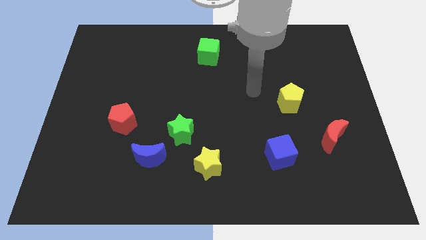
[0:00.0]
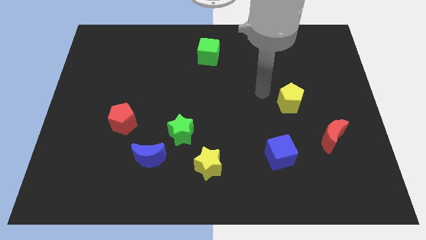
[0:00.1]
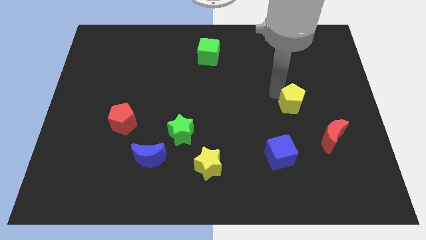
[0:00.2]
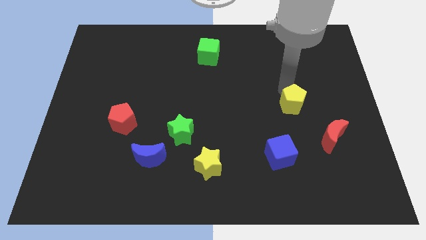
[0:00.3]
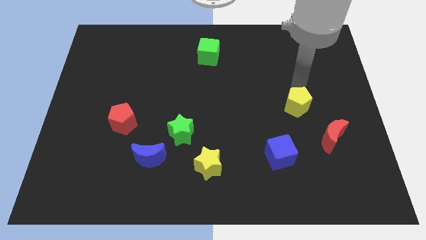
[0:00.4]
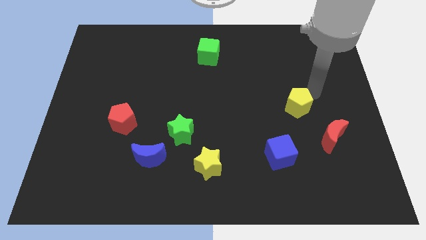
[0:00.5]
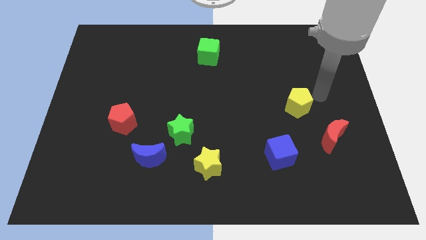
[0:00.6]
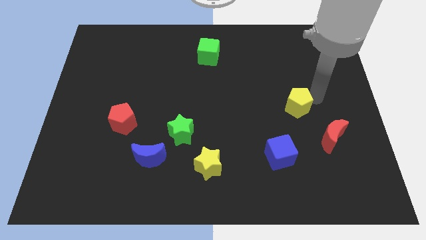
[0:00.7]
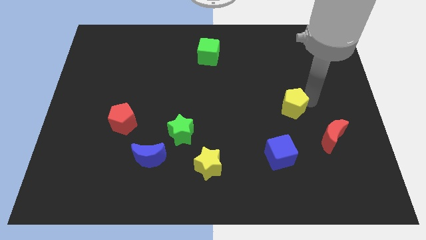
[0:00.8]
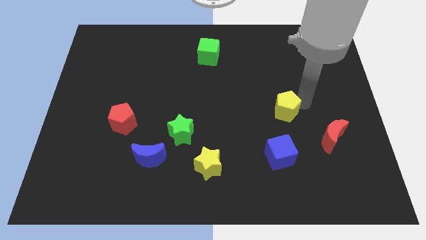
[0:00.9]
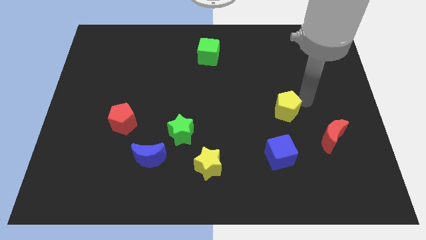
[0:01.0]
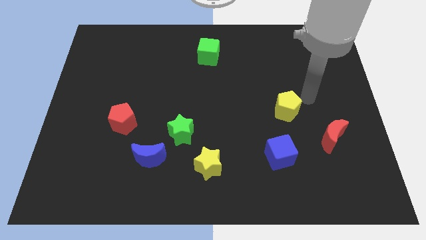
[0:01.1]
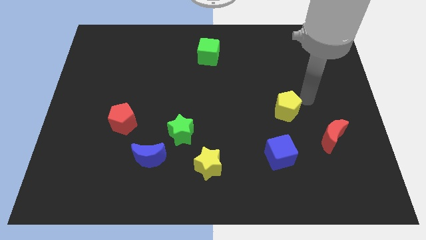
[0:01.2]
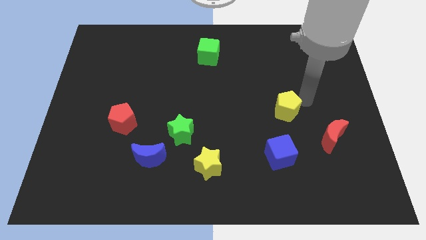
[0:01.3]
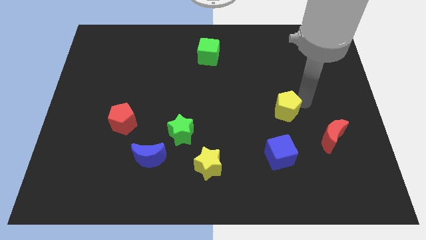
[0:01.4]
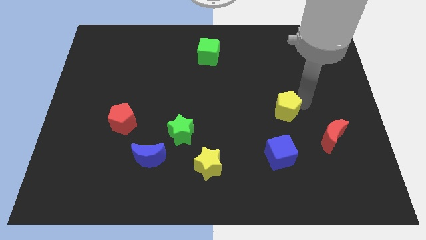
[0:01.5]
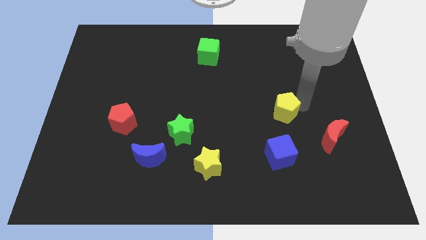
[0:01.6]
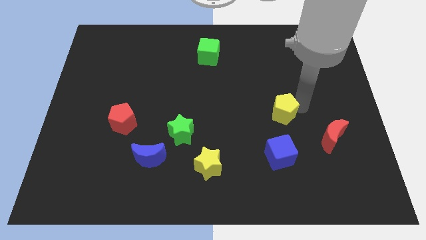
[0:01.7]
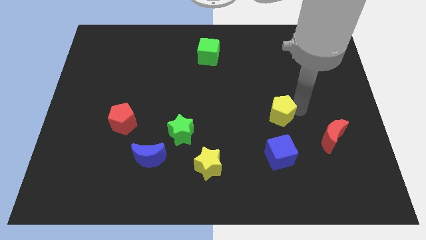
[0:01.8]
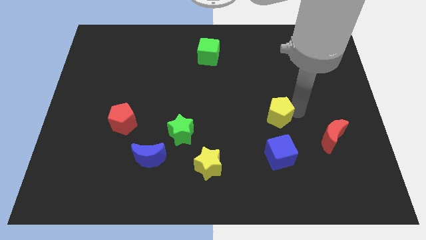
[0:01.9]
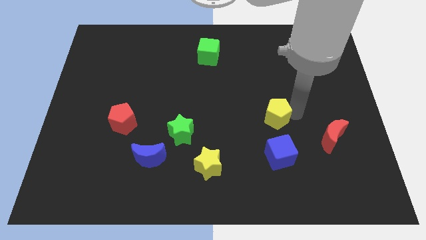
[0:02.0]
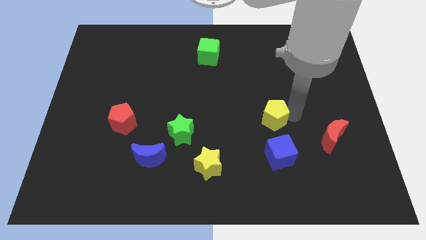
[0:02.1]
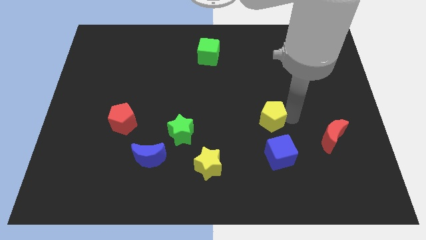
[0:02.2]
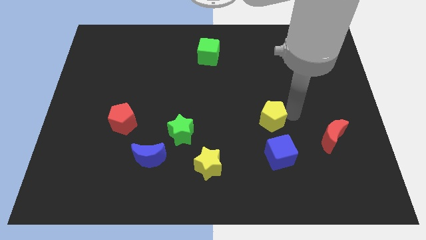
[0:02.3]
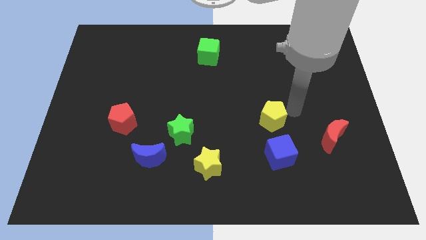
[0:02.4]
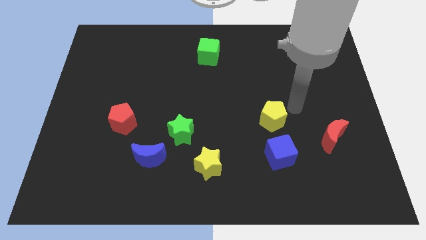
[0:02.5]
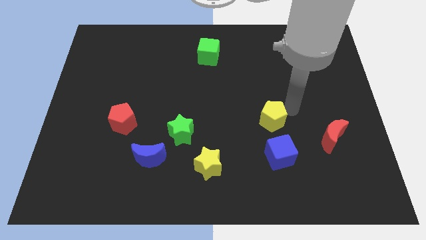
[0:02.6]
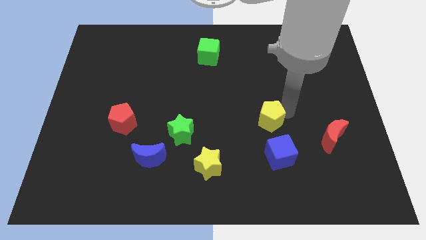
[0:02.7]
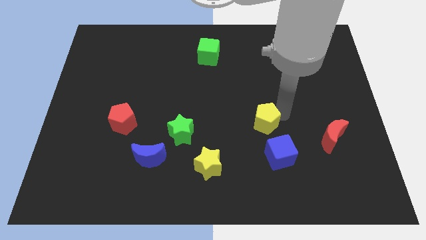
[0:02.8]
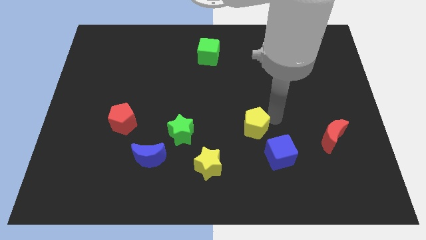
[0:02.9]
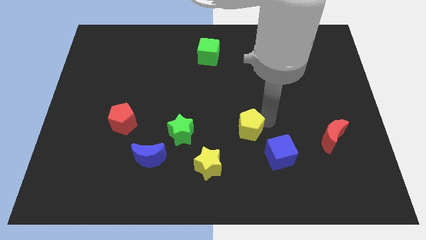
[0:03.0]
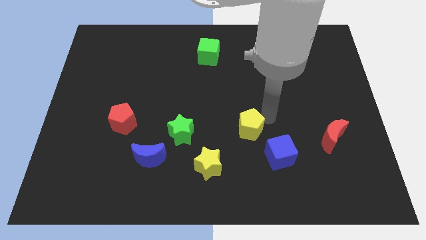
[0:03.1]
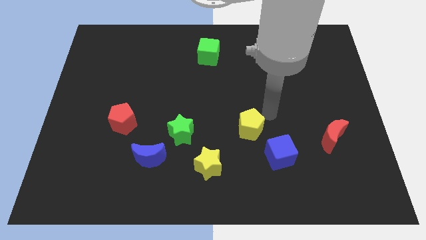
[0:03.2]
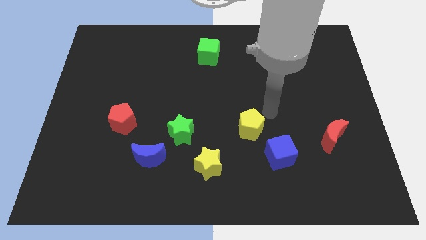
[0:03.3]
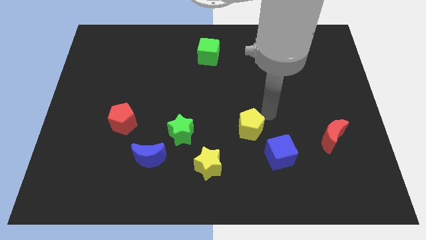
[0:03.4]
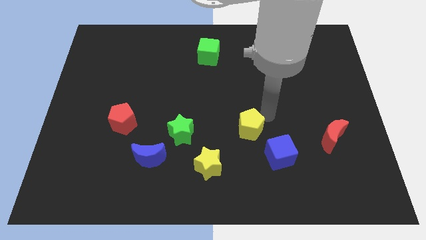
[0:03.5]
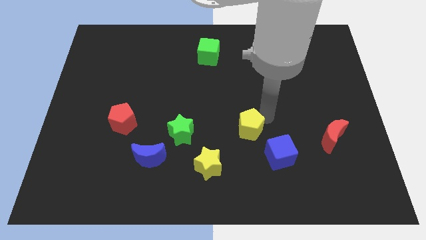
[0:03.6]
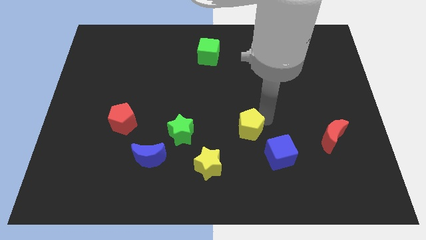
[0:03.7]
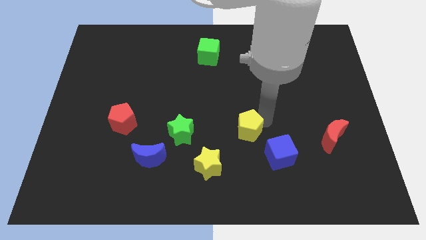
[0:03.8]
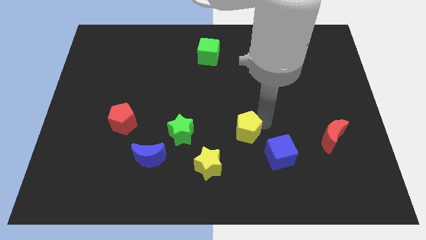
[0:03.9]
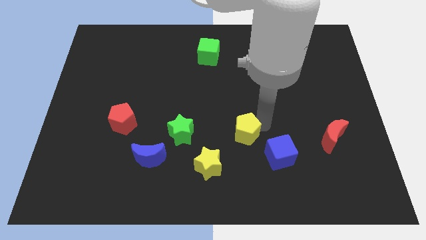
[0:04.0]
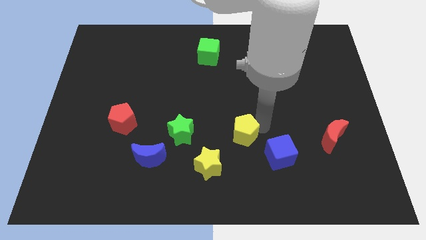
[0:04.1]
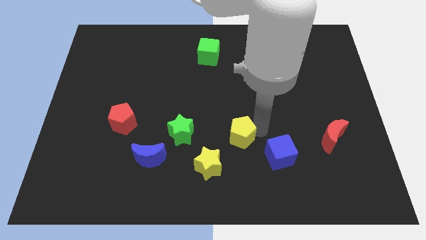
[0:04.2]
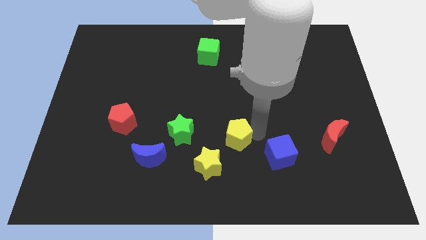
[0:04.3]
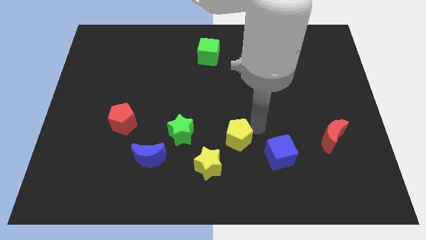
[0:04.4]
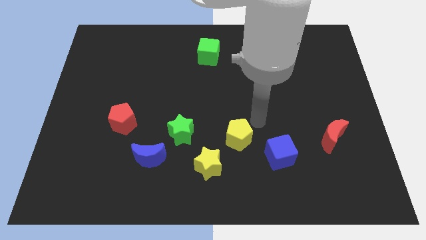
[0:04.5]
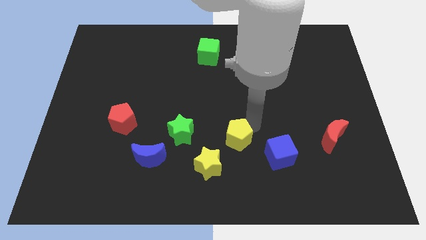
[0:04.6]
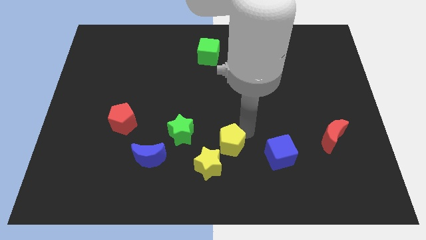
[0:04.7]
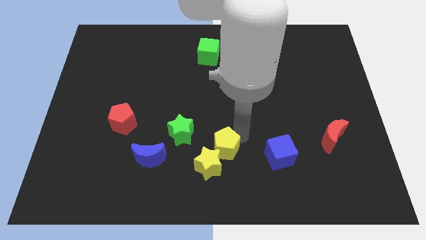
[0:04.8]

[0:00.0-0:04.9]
move the yellow pentagon towards the yellow star

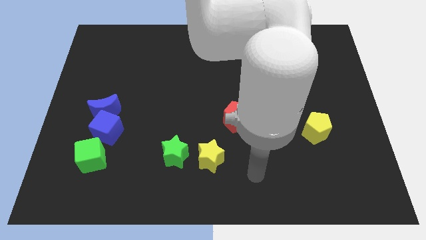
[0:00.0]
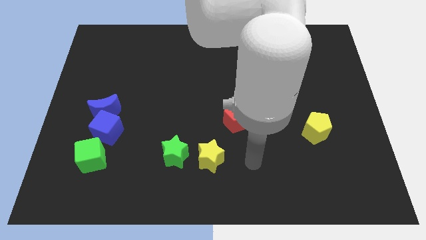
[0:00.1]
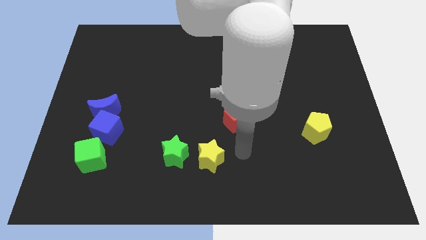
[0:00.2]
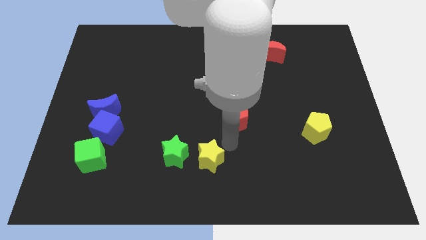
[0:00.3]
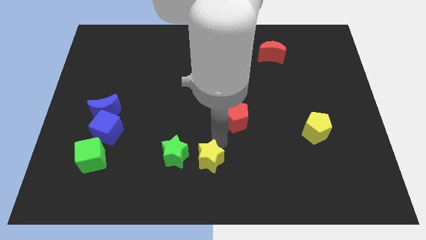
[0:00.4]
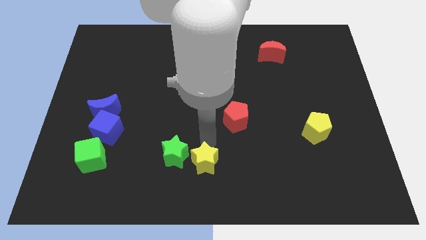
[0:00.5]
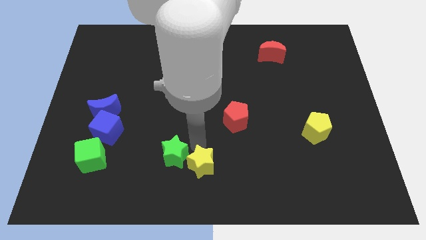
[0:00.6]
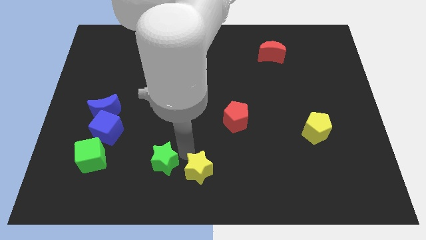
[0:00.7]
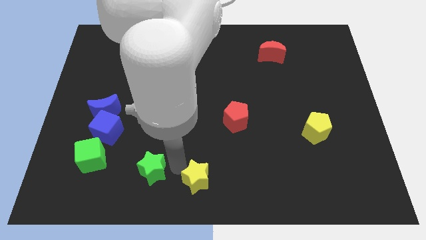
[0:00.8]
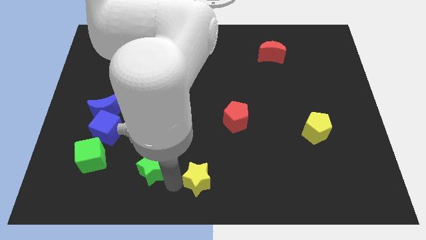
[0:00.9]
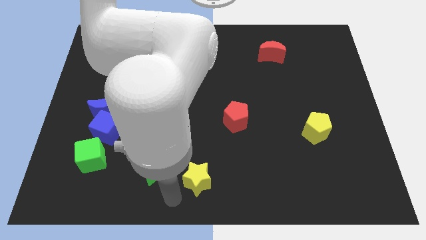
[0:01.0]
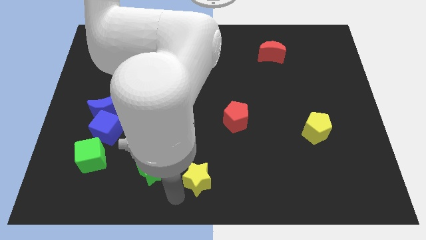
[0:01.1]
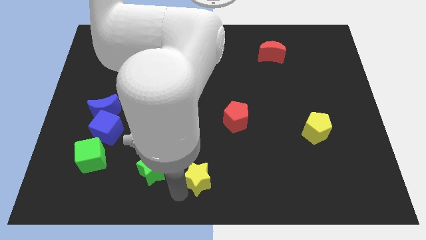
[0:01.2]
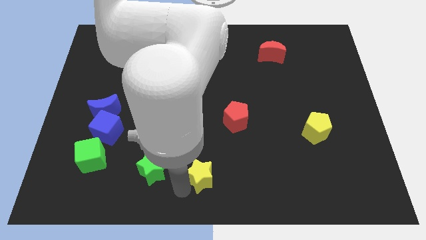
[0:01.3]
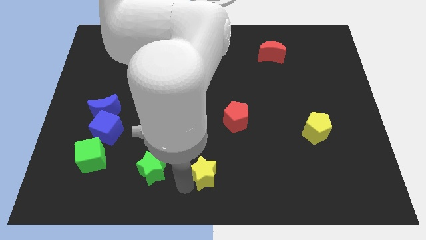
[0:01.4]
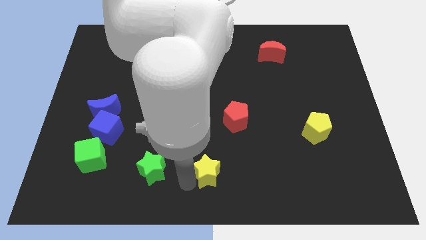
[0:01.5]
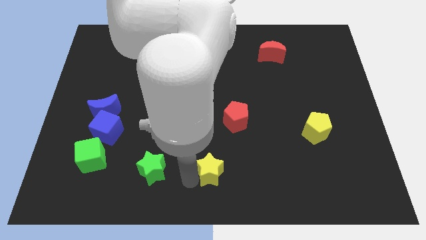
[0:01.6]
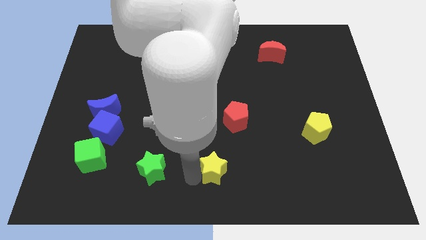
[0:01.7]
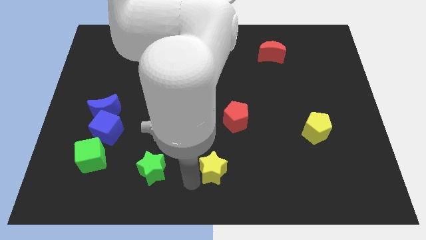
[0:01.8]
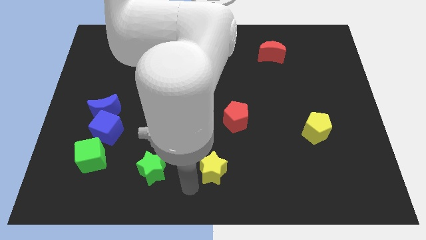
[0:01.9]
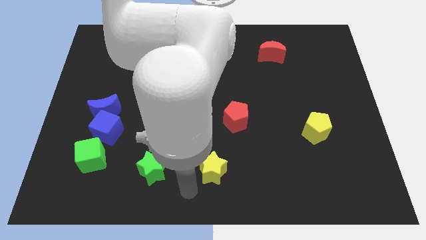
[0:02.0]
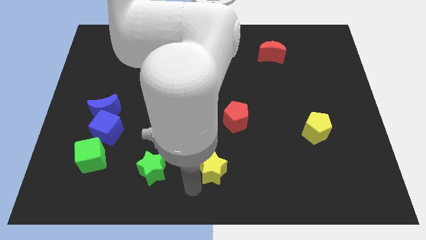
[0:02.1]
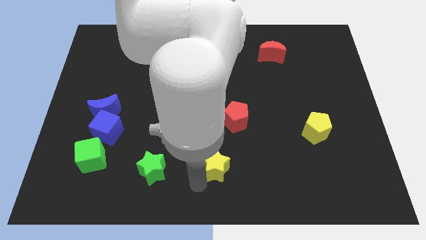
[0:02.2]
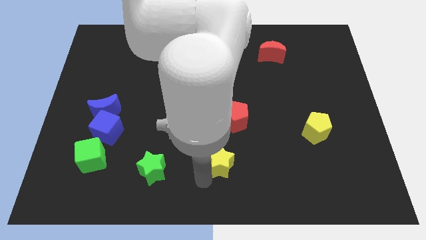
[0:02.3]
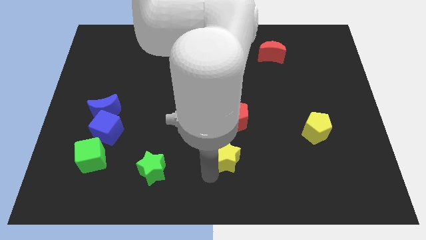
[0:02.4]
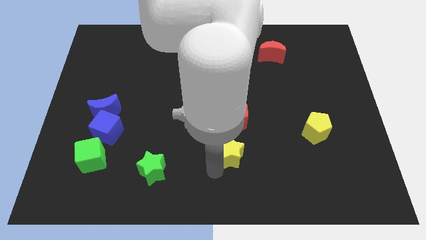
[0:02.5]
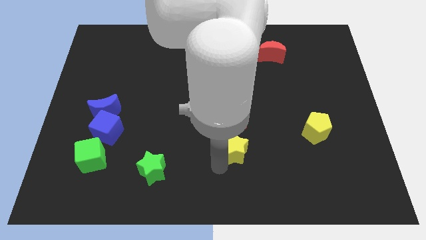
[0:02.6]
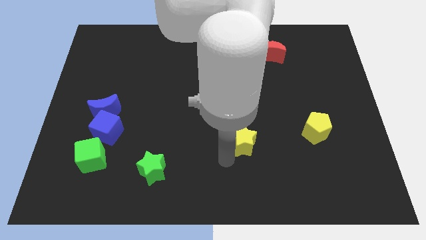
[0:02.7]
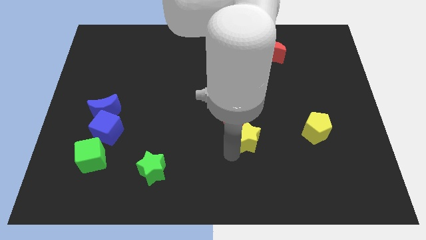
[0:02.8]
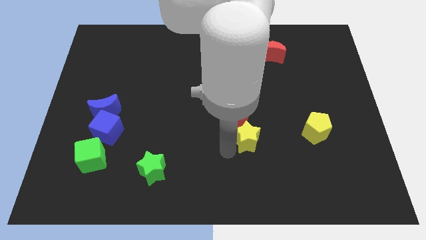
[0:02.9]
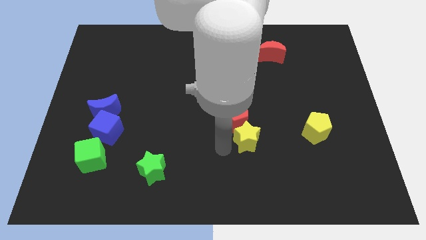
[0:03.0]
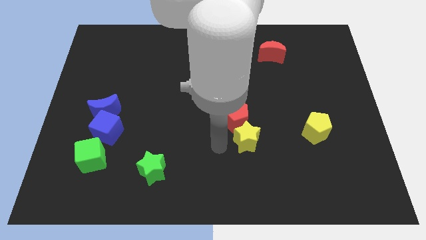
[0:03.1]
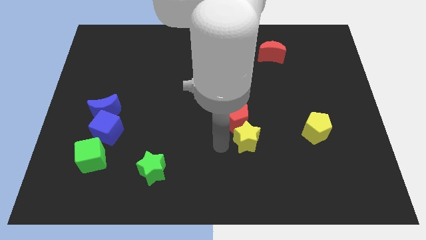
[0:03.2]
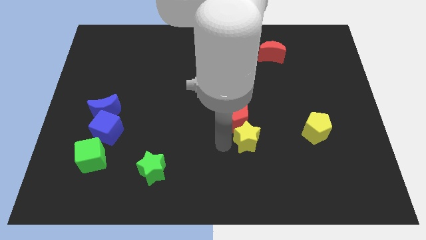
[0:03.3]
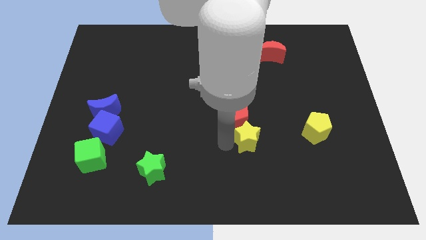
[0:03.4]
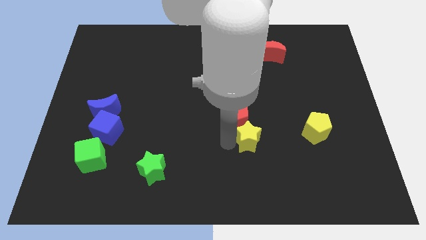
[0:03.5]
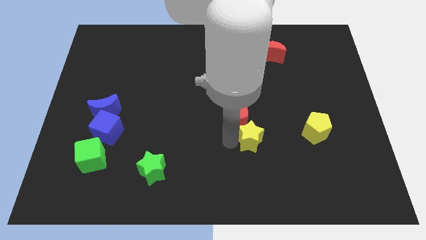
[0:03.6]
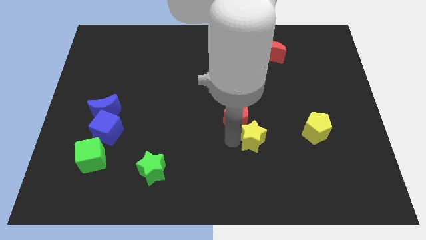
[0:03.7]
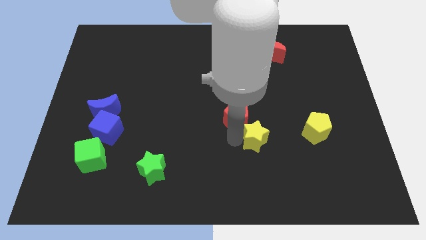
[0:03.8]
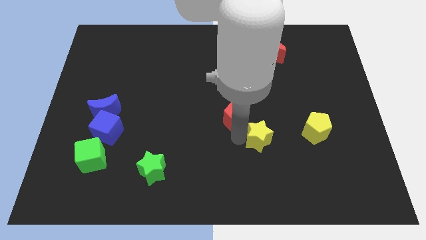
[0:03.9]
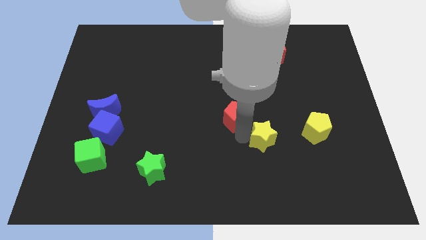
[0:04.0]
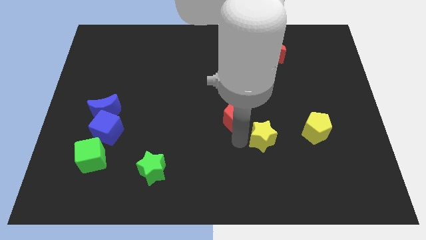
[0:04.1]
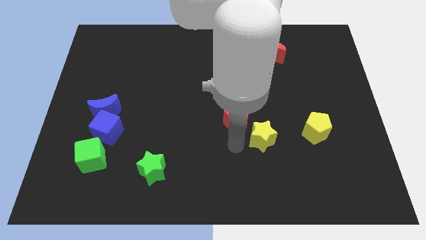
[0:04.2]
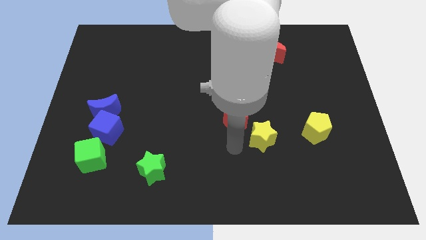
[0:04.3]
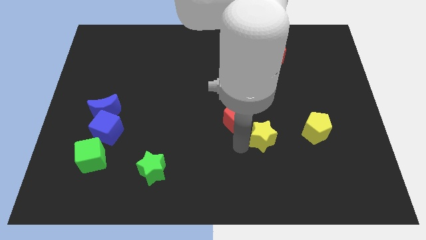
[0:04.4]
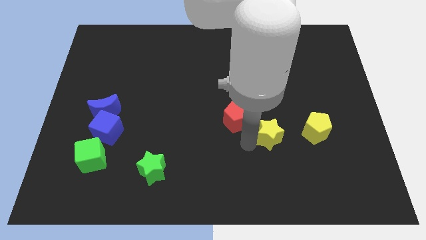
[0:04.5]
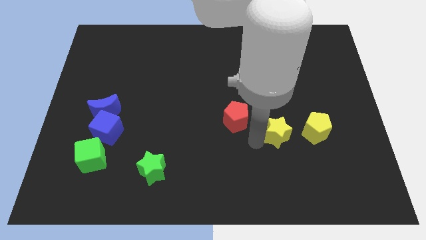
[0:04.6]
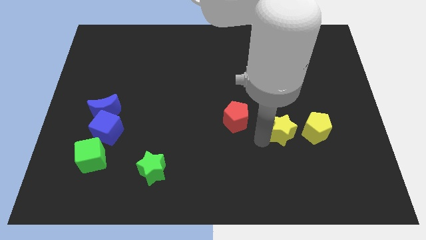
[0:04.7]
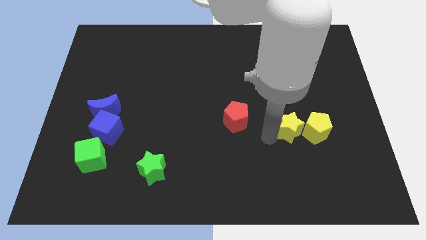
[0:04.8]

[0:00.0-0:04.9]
push the yellow star next to the yellow pentagon
